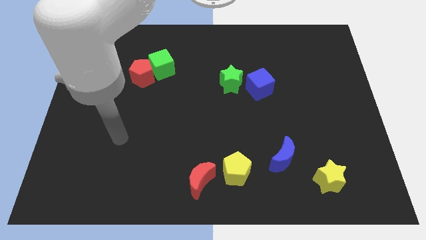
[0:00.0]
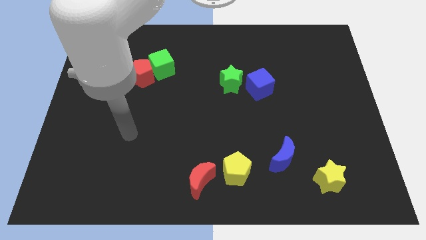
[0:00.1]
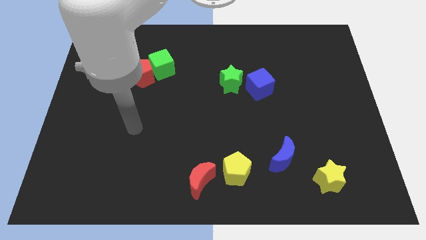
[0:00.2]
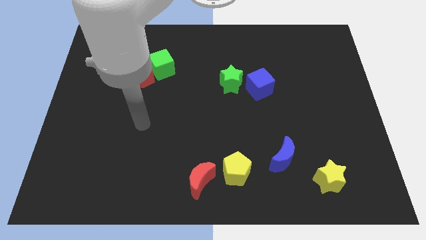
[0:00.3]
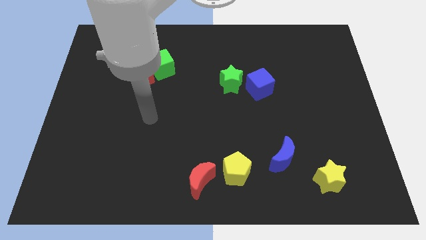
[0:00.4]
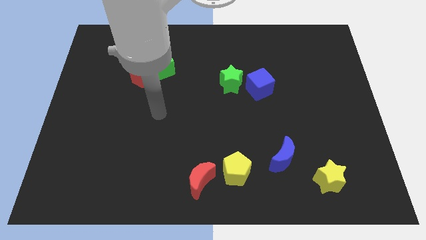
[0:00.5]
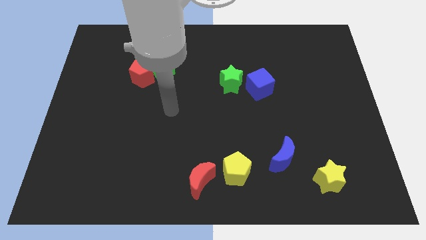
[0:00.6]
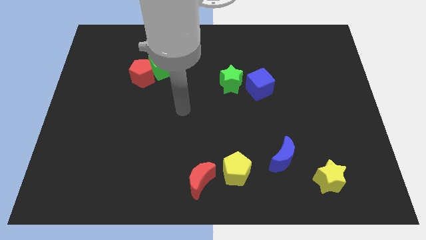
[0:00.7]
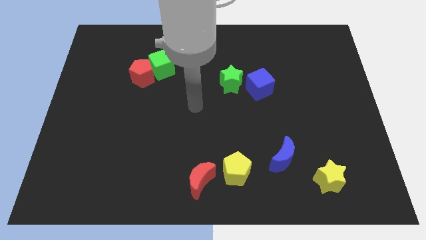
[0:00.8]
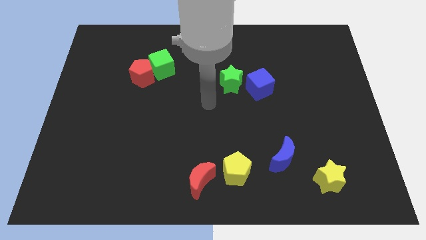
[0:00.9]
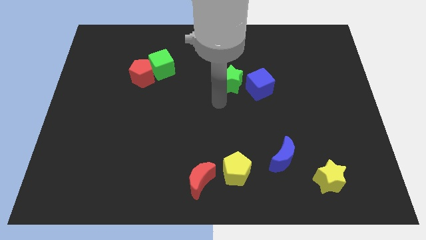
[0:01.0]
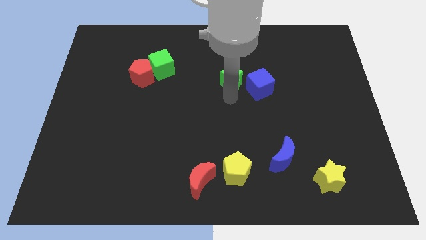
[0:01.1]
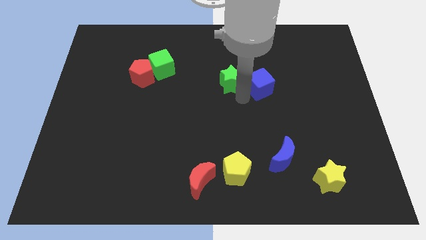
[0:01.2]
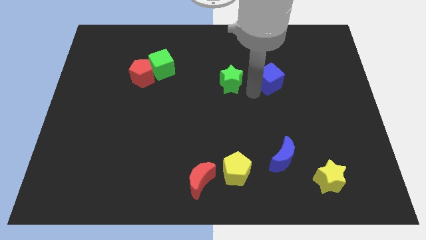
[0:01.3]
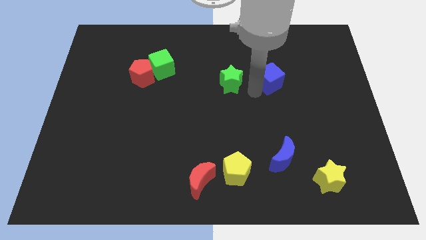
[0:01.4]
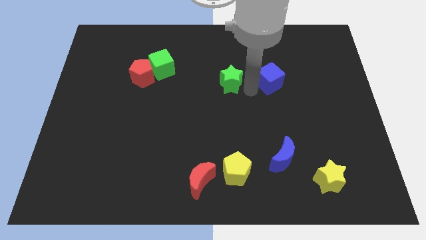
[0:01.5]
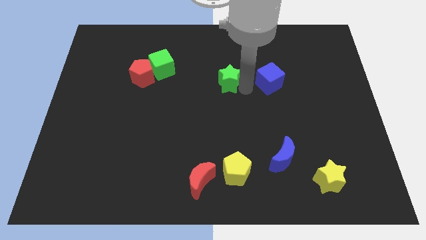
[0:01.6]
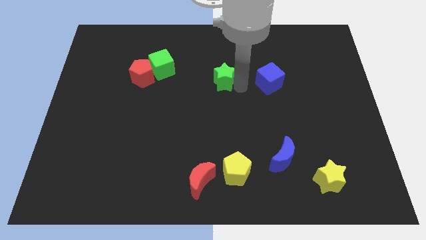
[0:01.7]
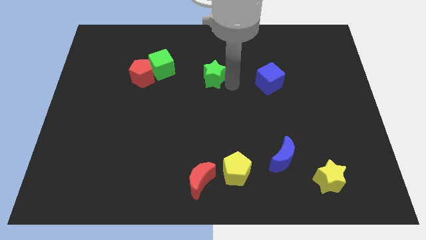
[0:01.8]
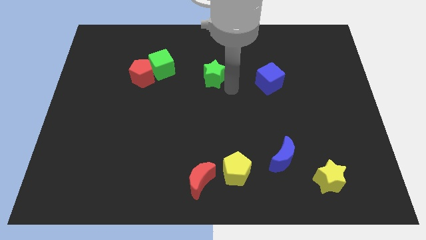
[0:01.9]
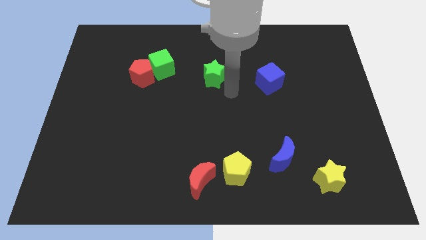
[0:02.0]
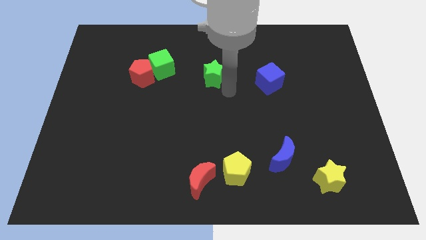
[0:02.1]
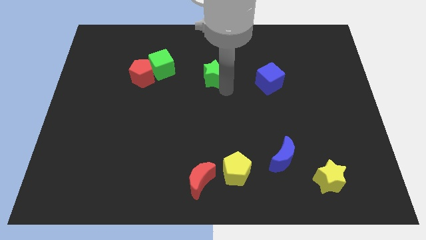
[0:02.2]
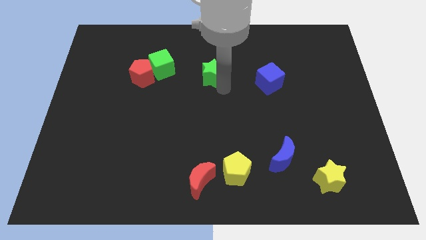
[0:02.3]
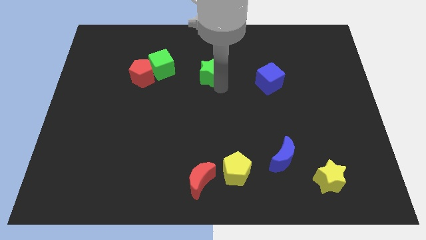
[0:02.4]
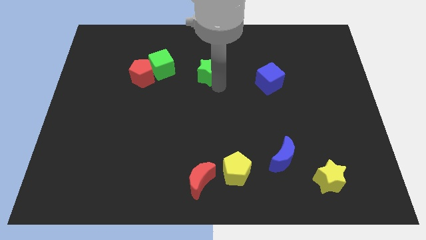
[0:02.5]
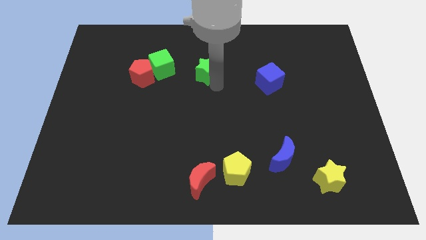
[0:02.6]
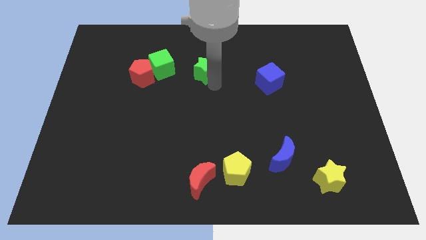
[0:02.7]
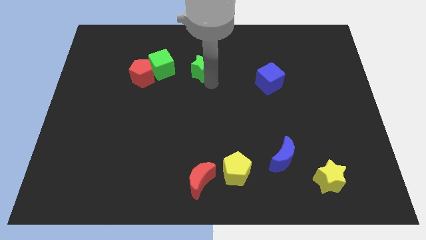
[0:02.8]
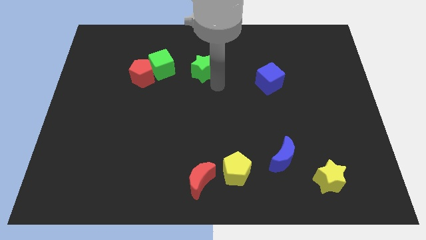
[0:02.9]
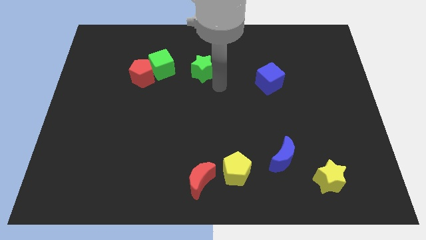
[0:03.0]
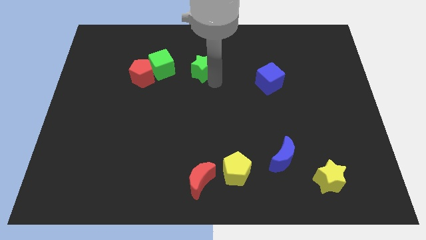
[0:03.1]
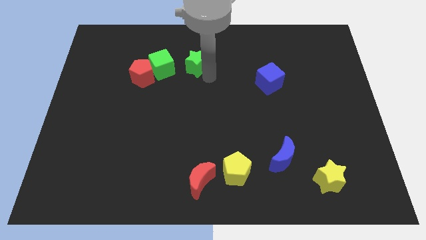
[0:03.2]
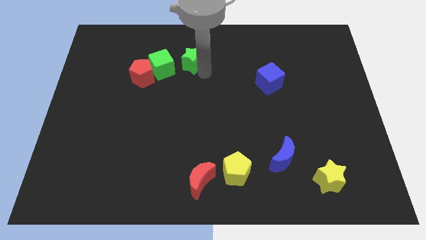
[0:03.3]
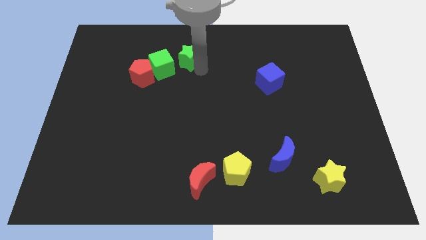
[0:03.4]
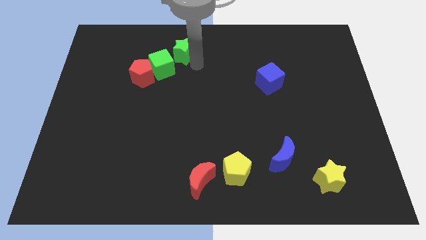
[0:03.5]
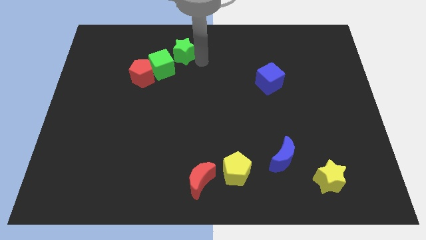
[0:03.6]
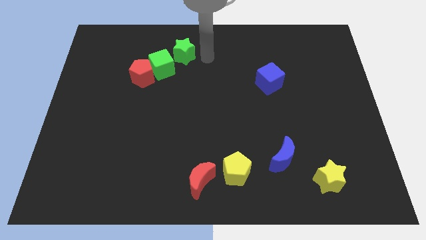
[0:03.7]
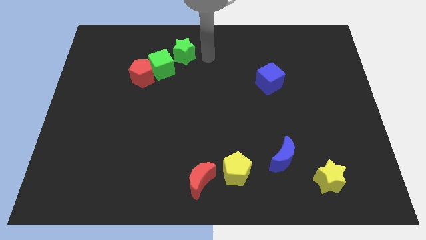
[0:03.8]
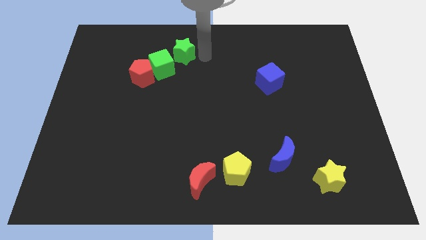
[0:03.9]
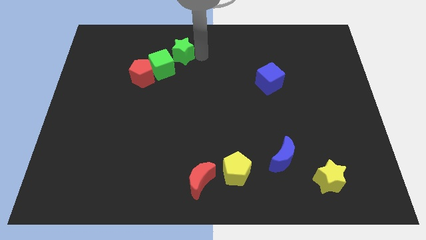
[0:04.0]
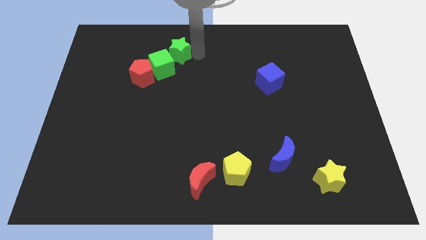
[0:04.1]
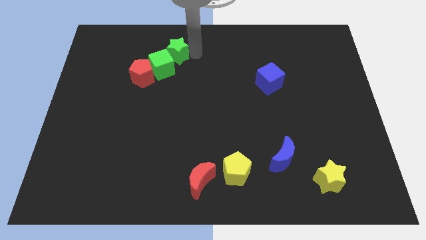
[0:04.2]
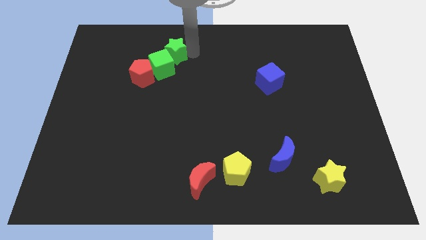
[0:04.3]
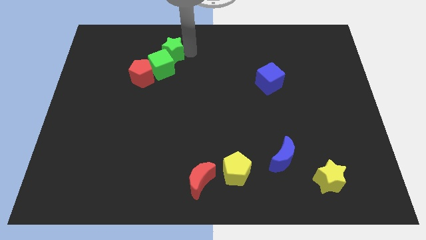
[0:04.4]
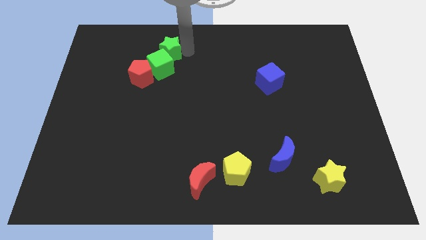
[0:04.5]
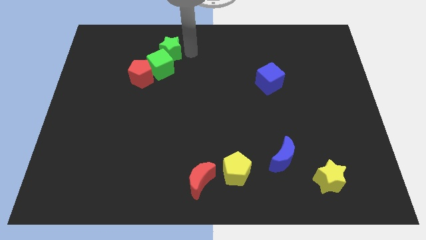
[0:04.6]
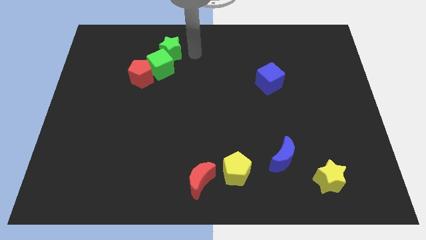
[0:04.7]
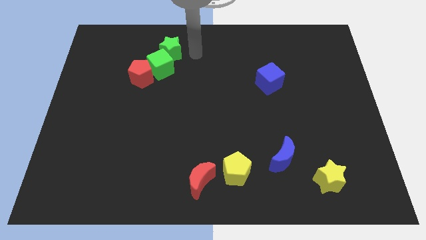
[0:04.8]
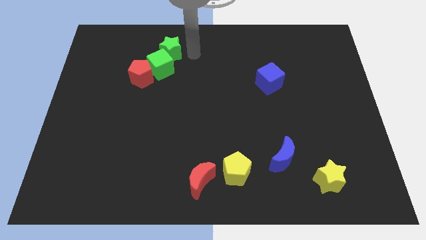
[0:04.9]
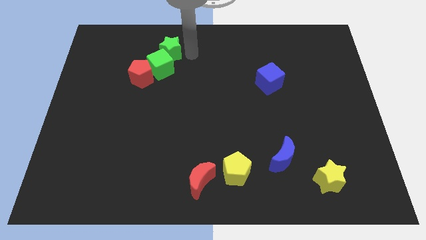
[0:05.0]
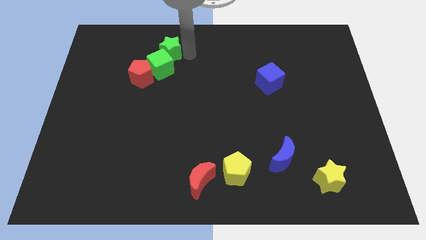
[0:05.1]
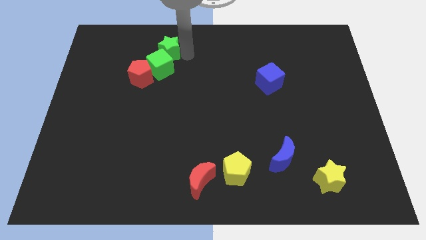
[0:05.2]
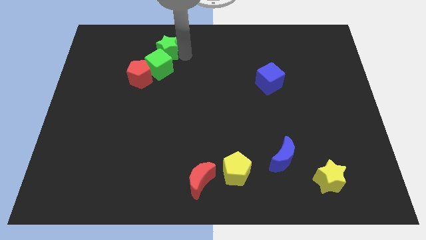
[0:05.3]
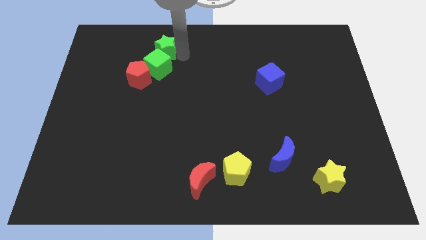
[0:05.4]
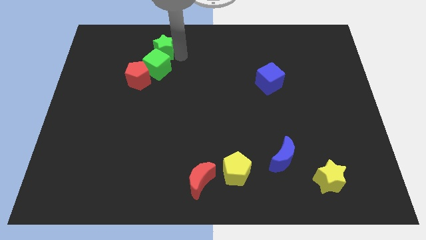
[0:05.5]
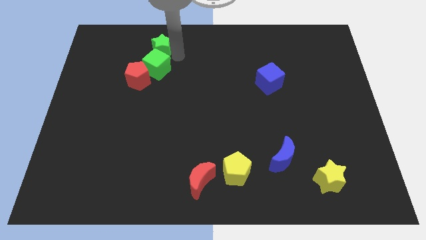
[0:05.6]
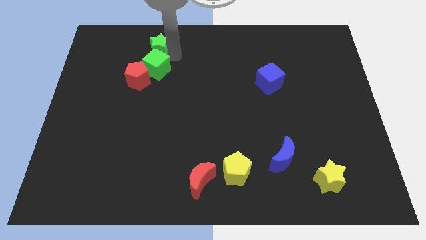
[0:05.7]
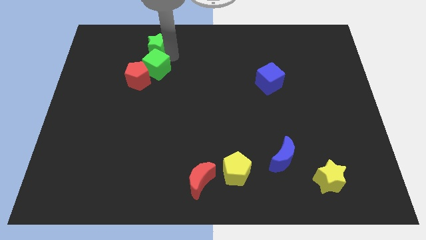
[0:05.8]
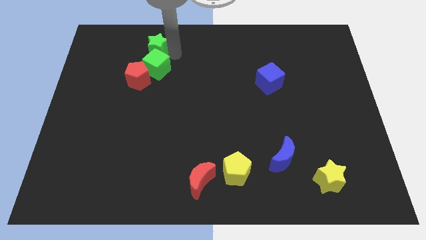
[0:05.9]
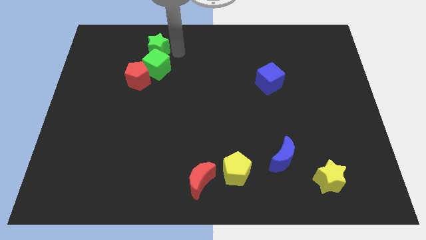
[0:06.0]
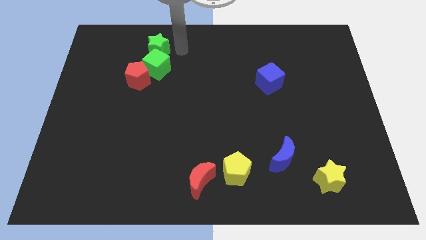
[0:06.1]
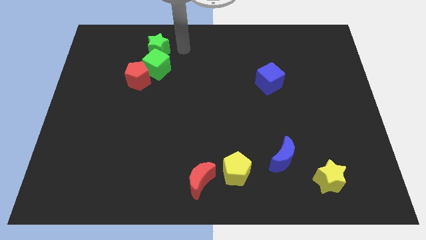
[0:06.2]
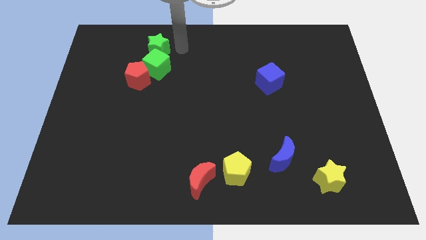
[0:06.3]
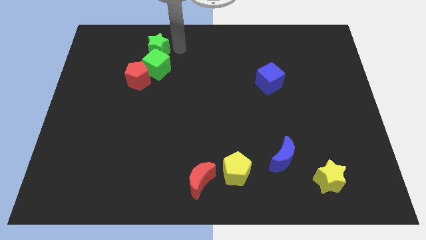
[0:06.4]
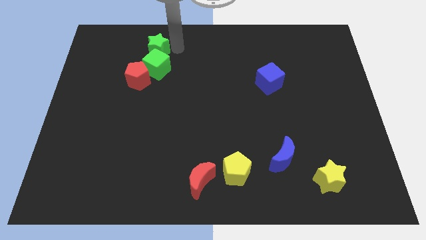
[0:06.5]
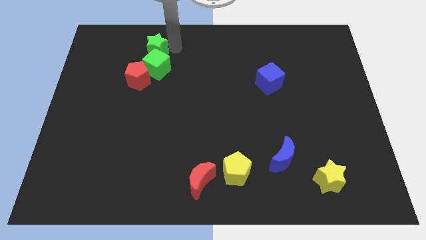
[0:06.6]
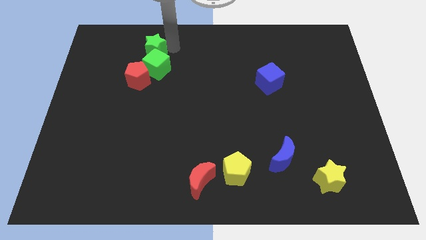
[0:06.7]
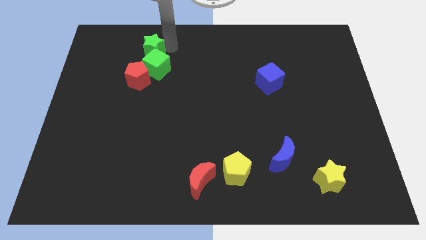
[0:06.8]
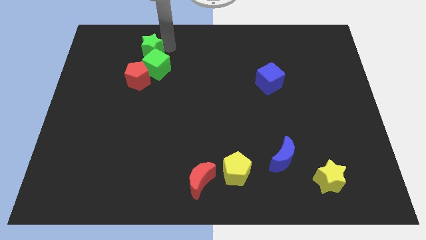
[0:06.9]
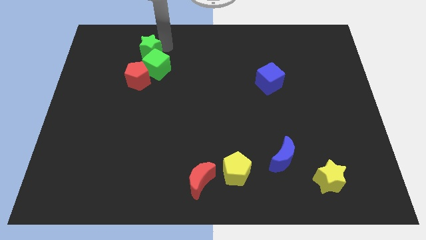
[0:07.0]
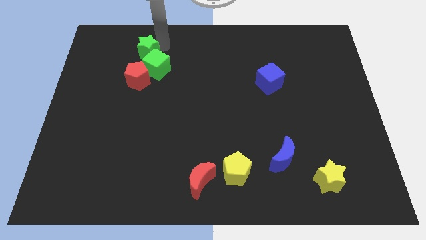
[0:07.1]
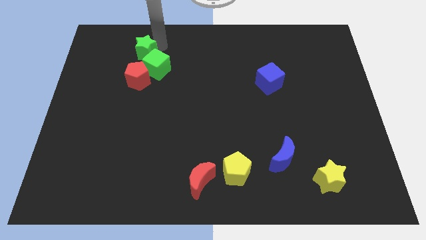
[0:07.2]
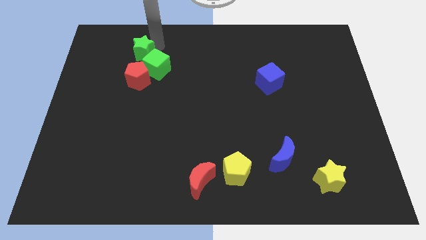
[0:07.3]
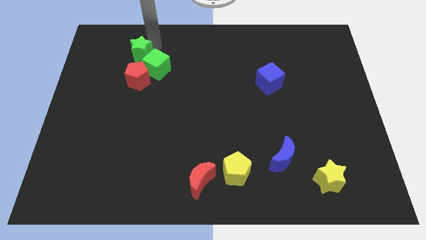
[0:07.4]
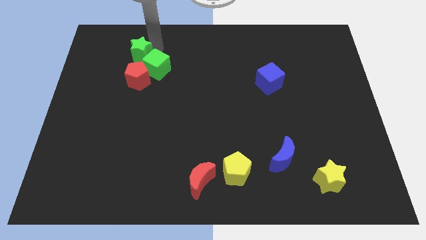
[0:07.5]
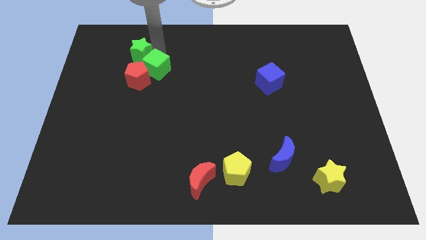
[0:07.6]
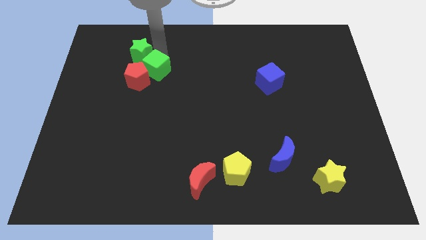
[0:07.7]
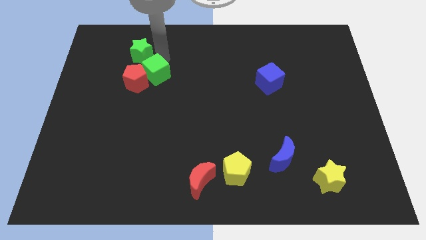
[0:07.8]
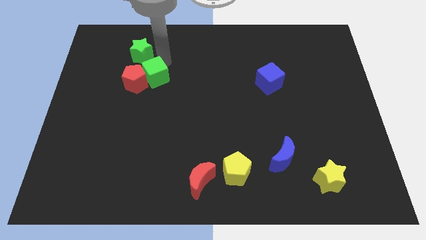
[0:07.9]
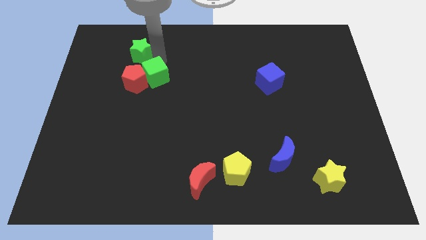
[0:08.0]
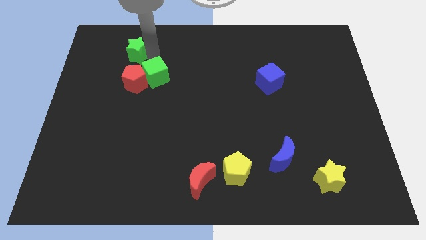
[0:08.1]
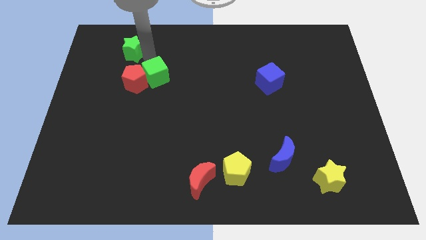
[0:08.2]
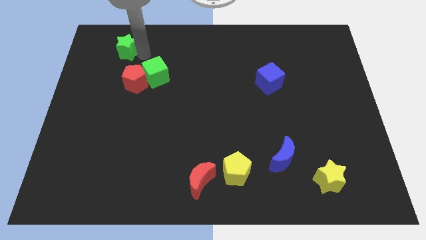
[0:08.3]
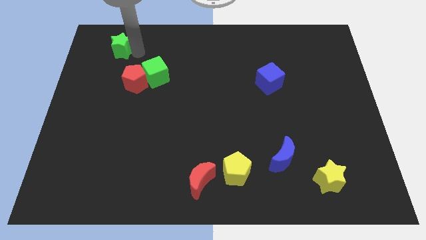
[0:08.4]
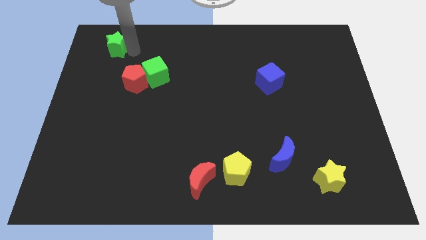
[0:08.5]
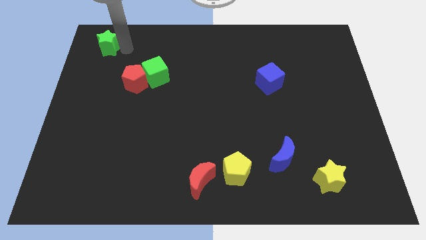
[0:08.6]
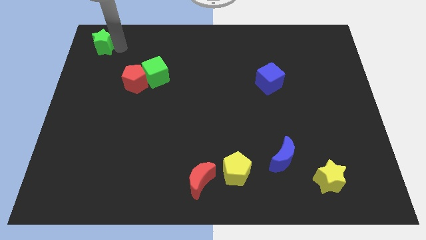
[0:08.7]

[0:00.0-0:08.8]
put the green star to the upper left corner
